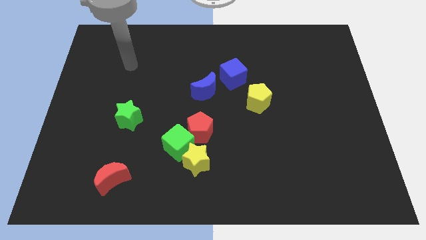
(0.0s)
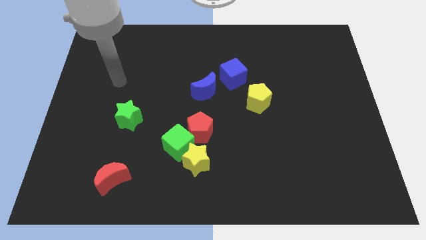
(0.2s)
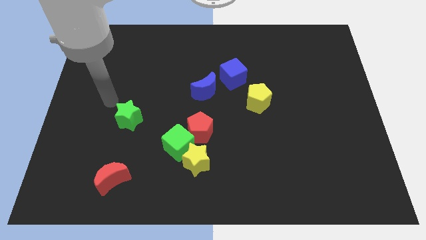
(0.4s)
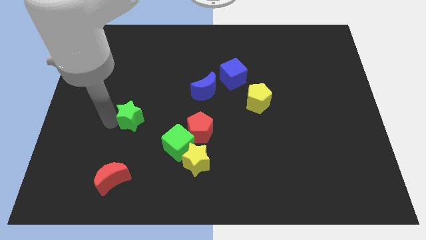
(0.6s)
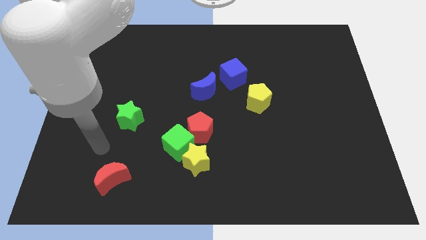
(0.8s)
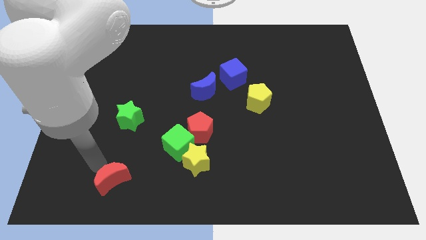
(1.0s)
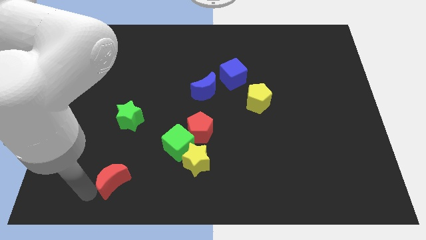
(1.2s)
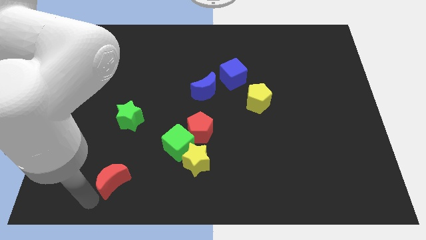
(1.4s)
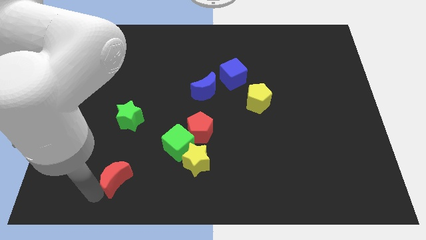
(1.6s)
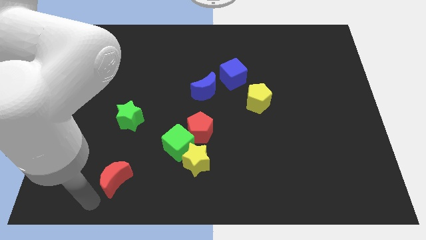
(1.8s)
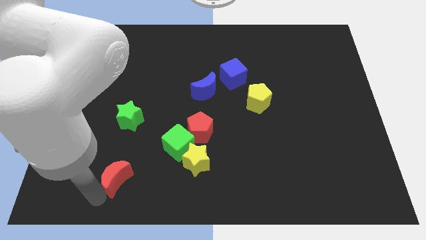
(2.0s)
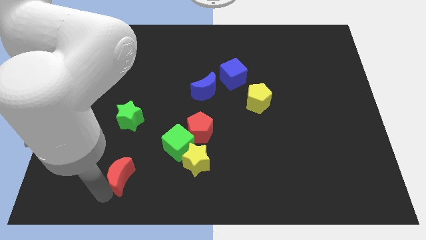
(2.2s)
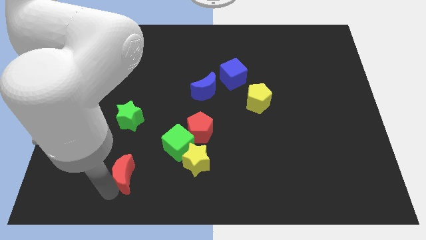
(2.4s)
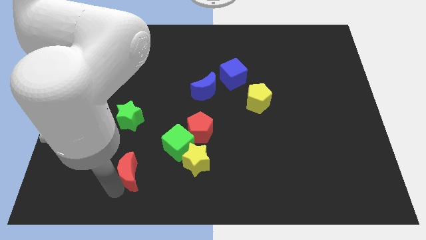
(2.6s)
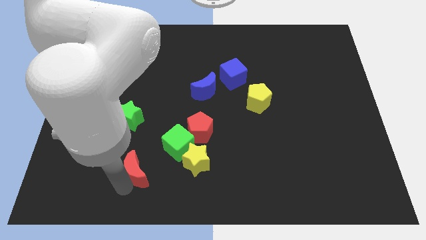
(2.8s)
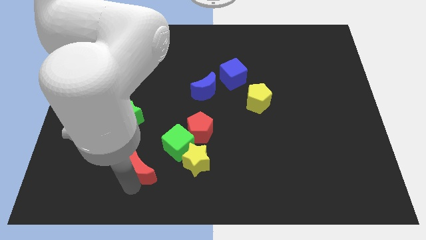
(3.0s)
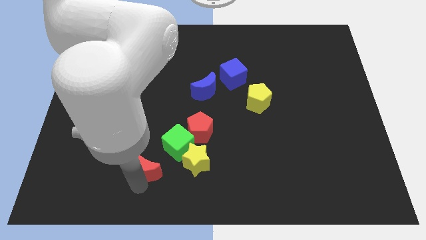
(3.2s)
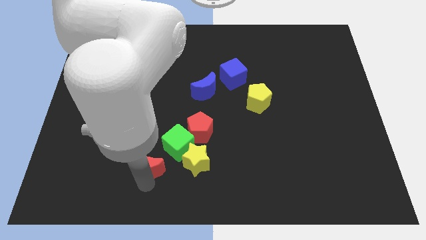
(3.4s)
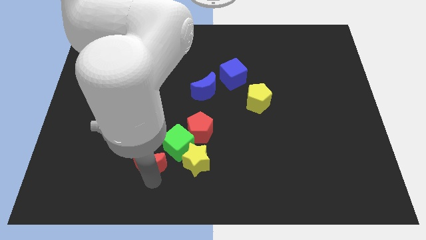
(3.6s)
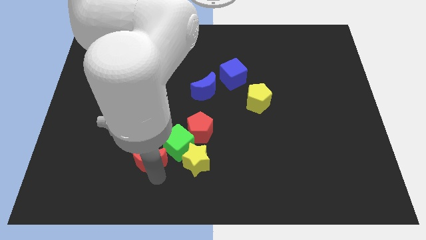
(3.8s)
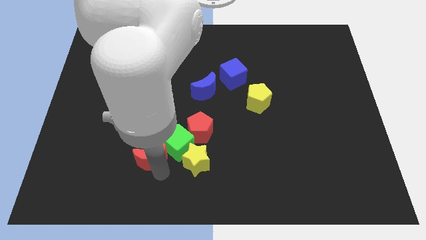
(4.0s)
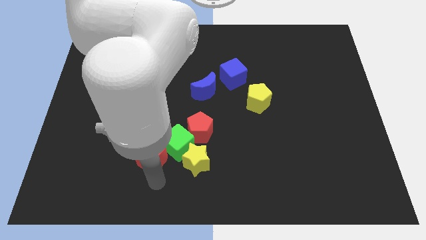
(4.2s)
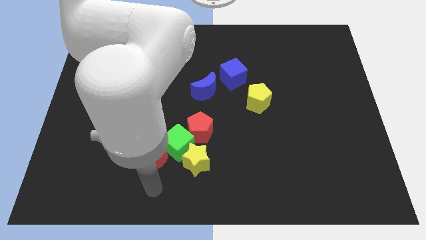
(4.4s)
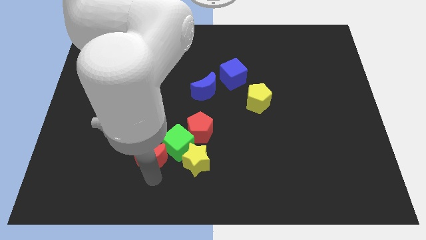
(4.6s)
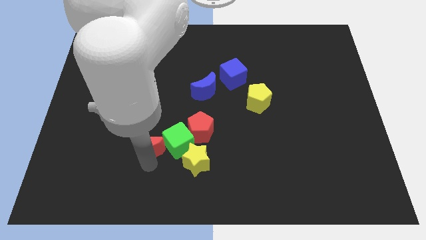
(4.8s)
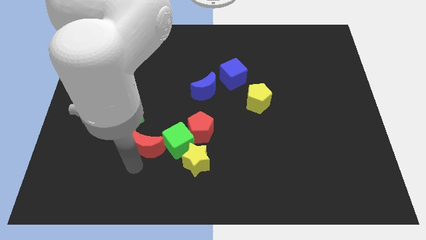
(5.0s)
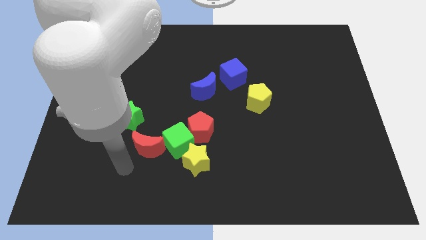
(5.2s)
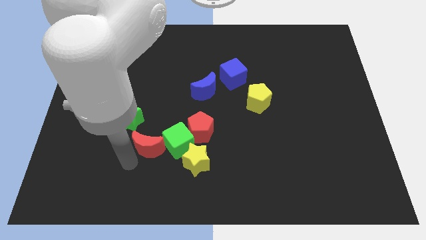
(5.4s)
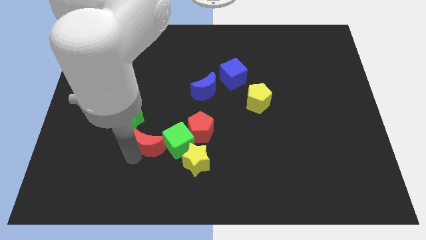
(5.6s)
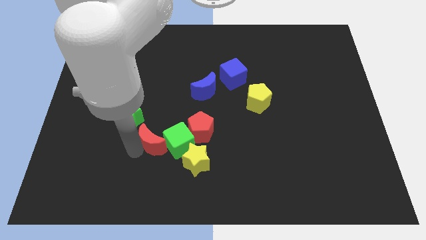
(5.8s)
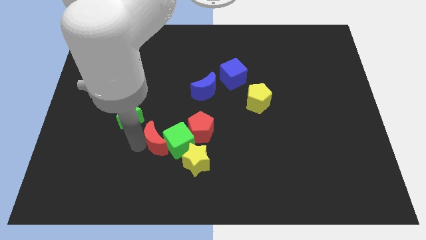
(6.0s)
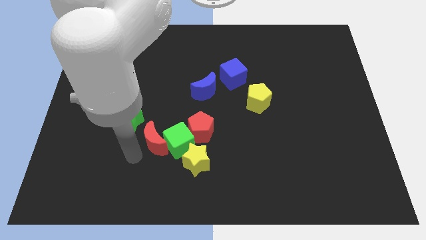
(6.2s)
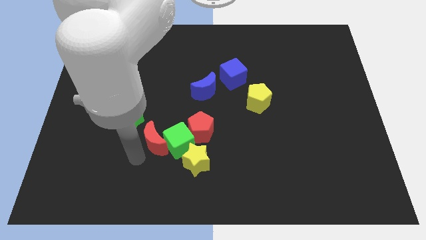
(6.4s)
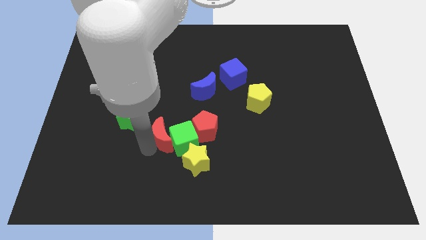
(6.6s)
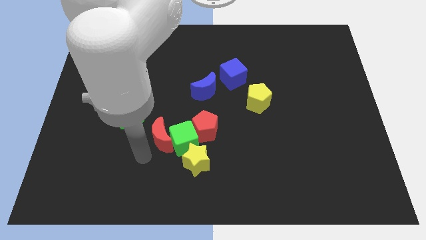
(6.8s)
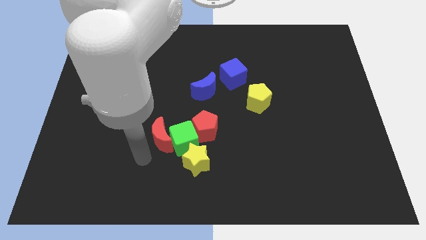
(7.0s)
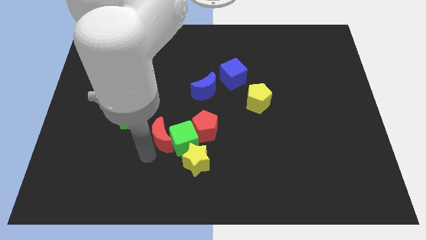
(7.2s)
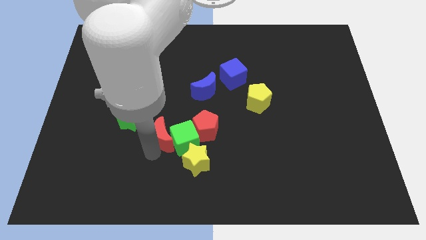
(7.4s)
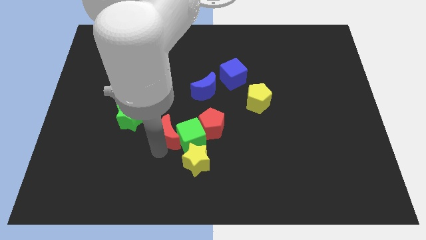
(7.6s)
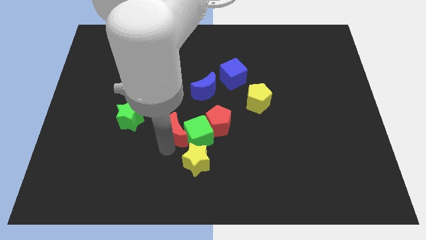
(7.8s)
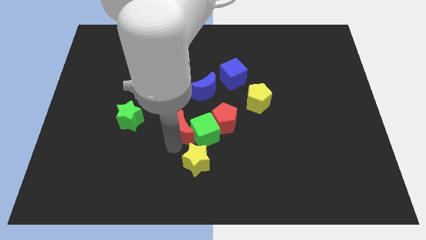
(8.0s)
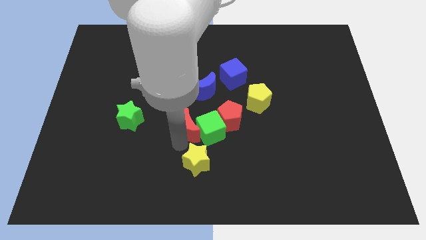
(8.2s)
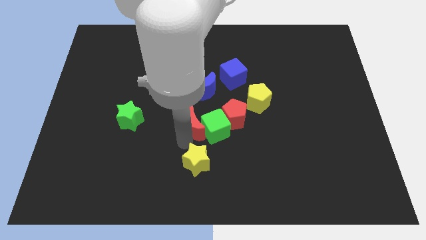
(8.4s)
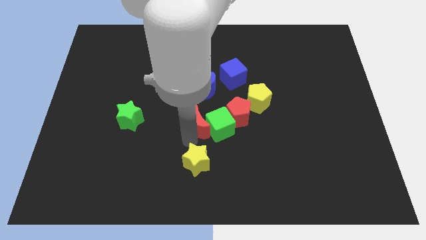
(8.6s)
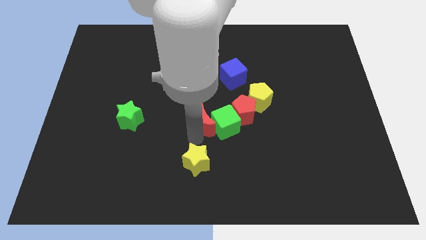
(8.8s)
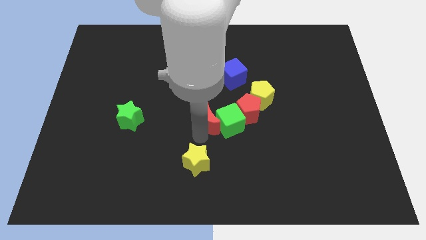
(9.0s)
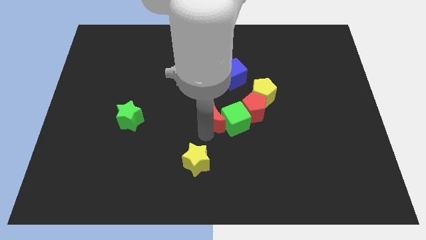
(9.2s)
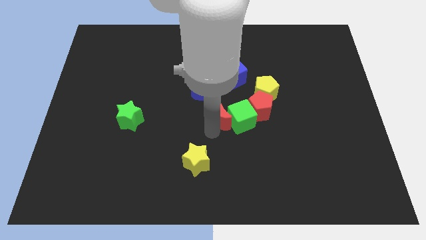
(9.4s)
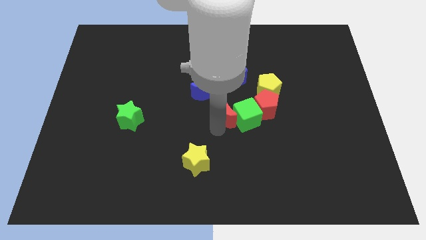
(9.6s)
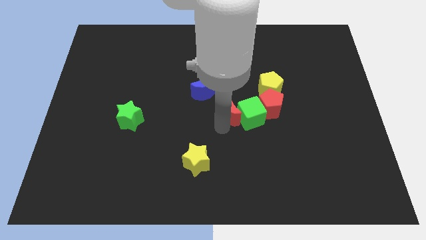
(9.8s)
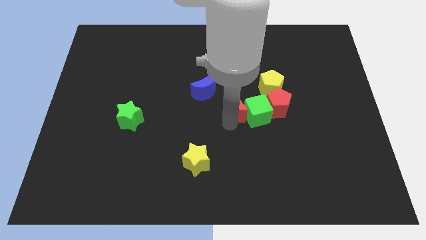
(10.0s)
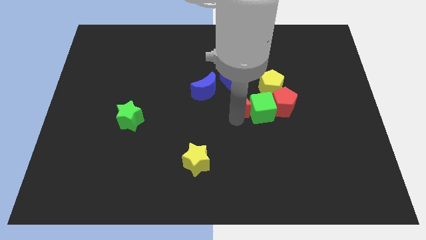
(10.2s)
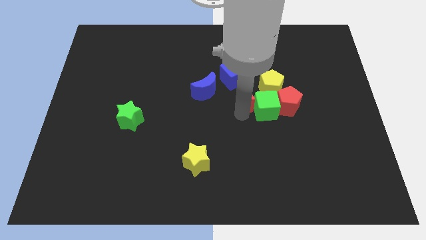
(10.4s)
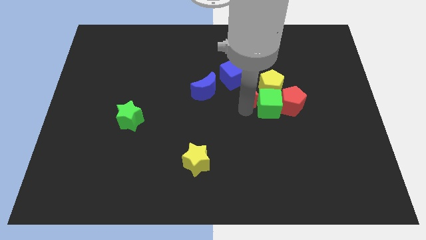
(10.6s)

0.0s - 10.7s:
put the red moon close to the yellow pentagon

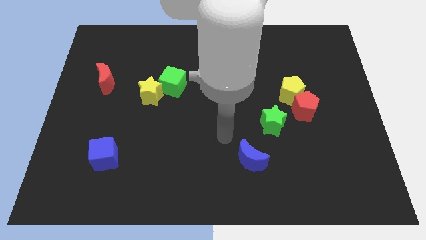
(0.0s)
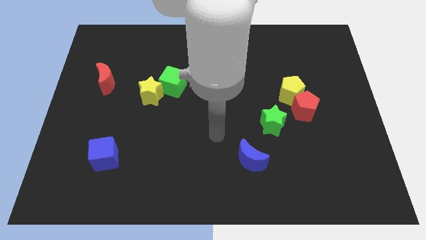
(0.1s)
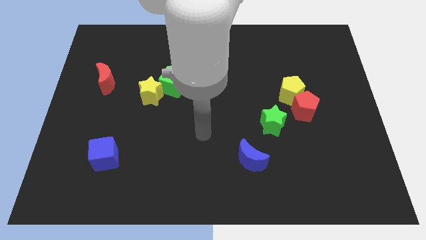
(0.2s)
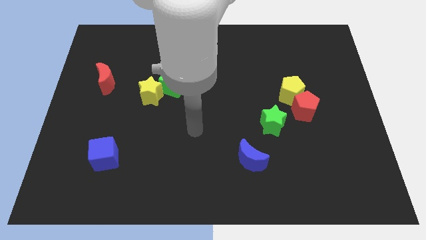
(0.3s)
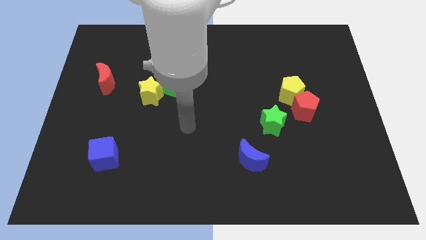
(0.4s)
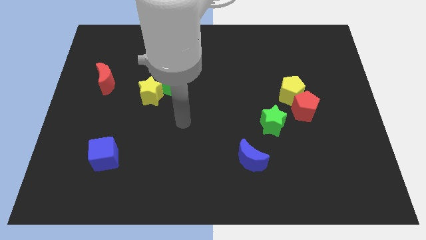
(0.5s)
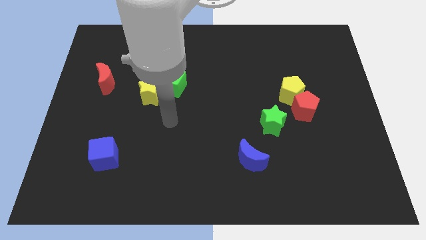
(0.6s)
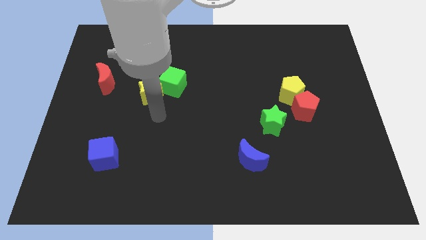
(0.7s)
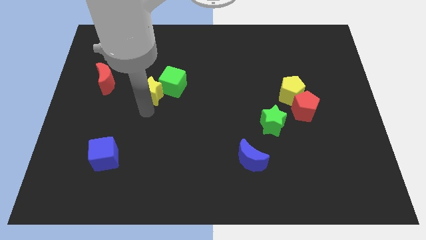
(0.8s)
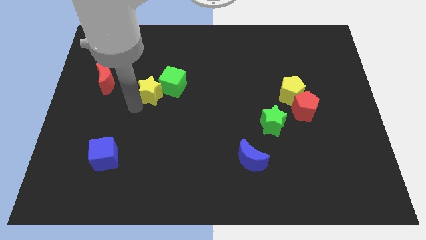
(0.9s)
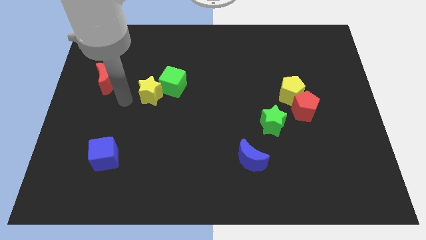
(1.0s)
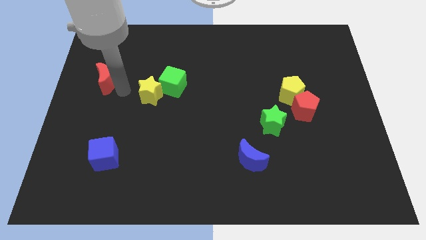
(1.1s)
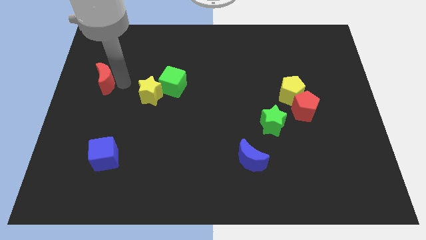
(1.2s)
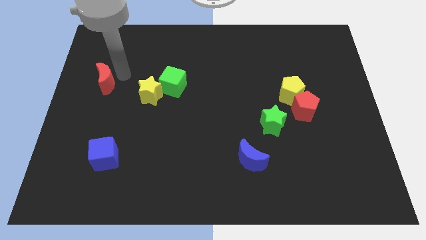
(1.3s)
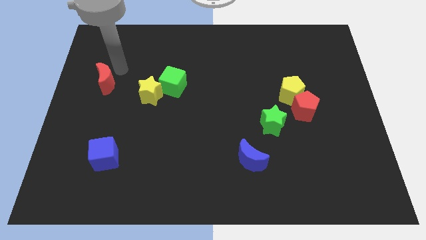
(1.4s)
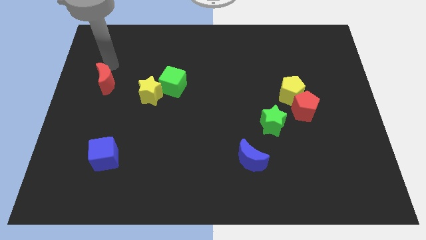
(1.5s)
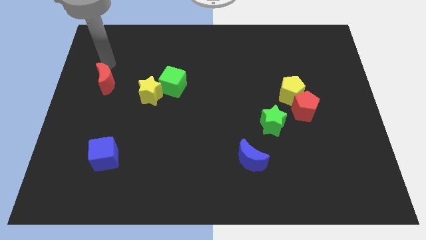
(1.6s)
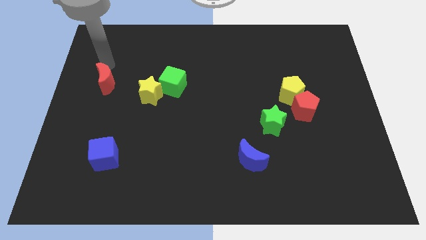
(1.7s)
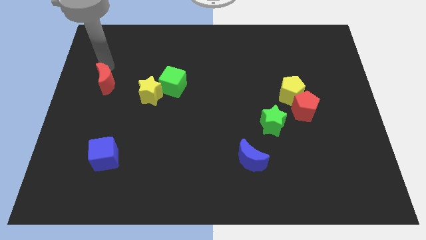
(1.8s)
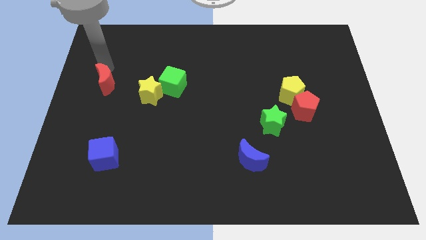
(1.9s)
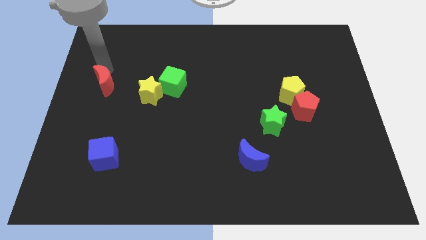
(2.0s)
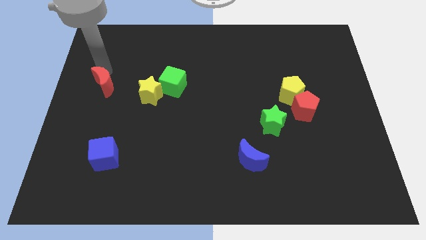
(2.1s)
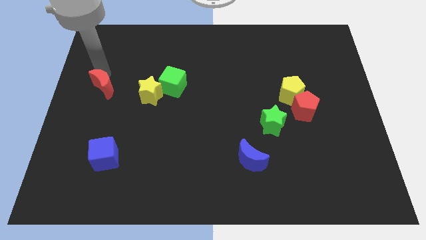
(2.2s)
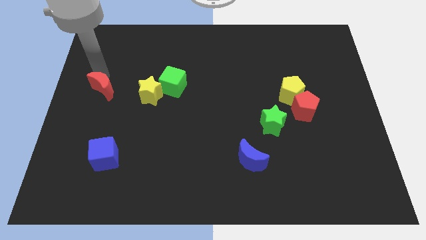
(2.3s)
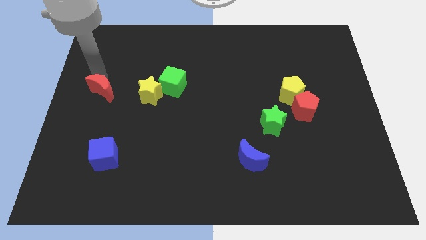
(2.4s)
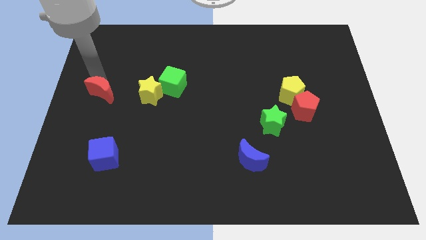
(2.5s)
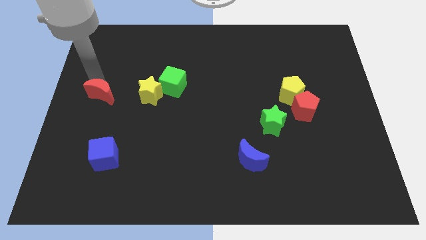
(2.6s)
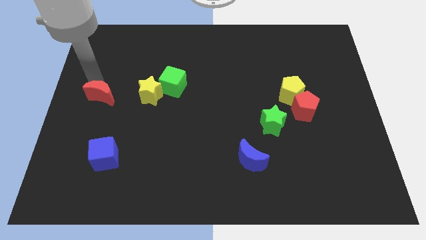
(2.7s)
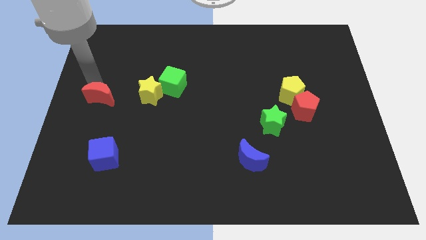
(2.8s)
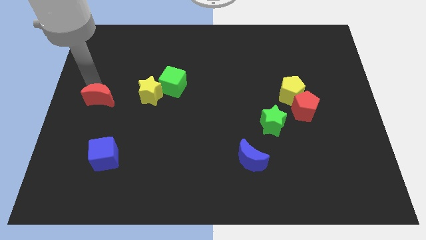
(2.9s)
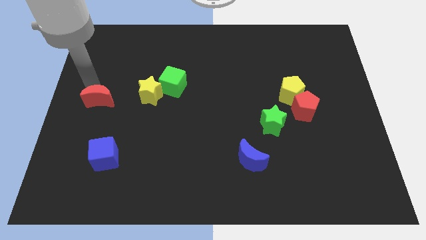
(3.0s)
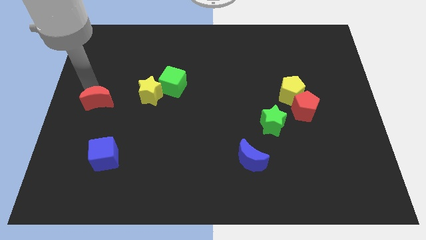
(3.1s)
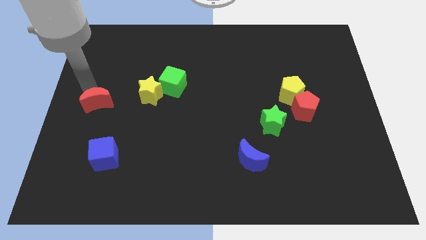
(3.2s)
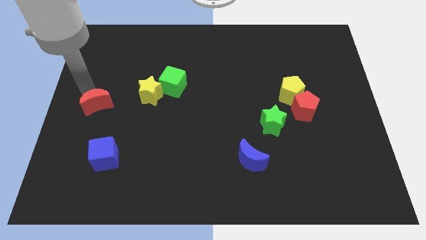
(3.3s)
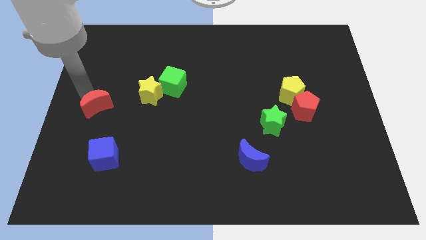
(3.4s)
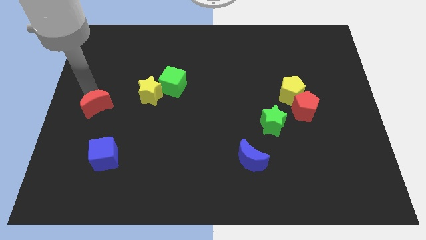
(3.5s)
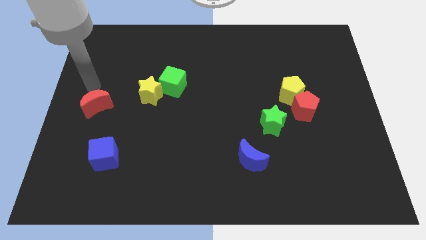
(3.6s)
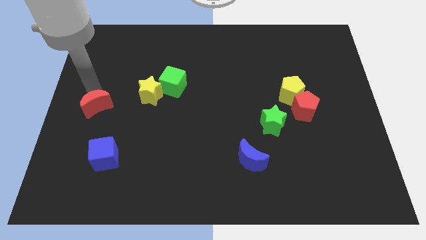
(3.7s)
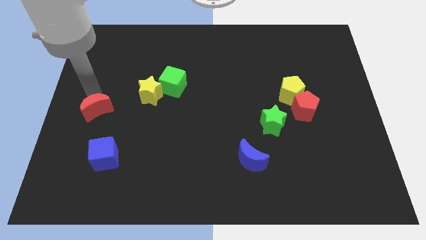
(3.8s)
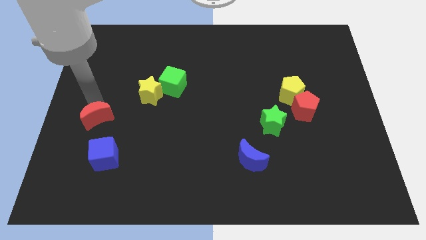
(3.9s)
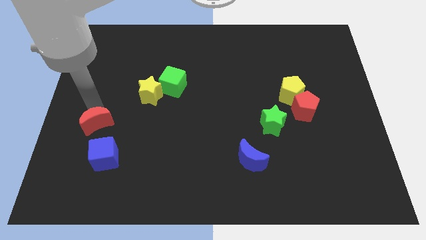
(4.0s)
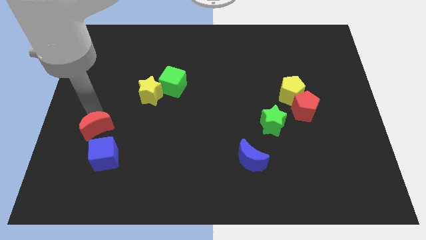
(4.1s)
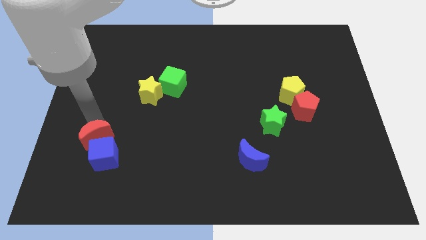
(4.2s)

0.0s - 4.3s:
put the red moon next to the blue cube
